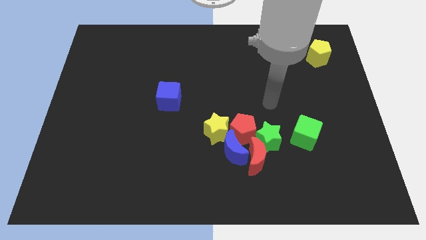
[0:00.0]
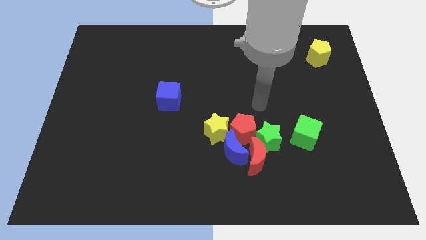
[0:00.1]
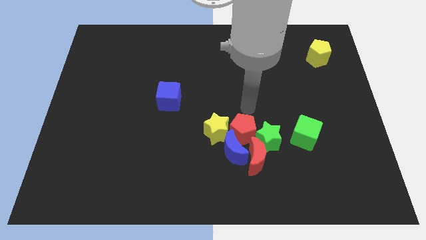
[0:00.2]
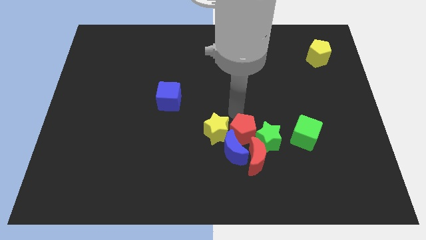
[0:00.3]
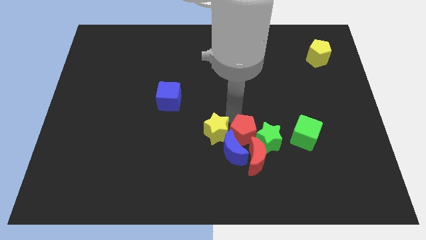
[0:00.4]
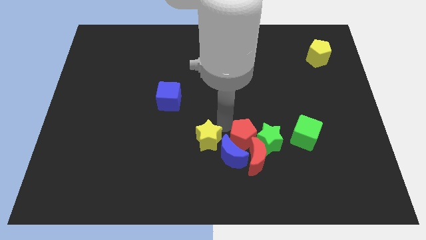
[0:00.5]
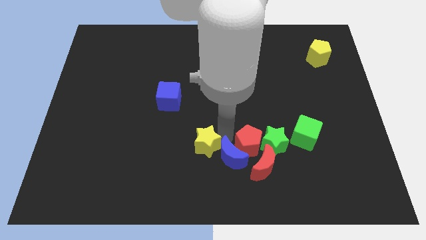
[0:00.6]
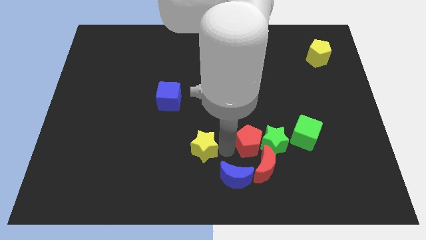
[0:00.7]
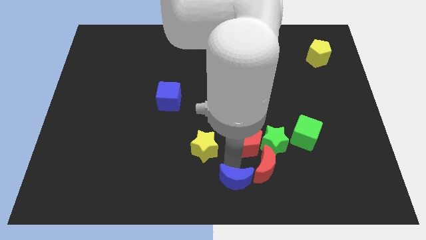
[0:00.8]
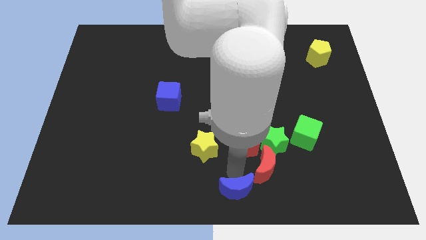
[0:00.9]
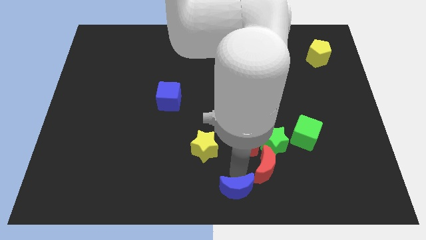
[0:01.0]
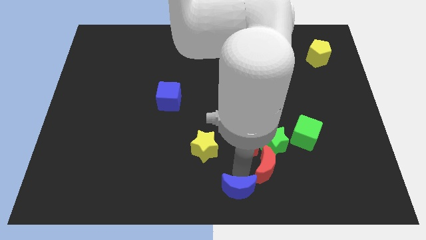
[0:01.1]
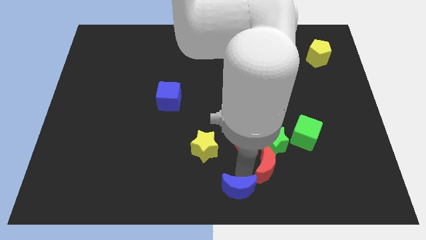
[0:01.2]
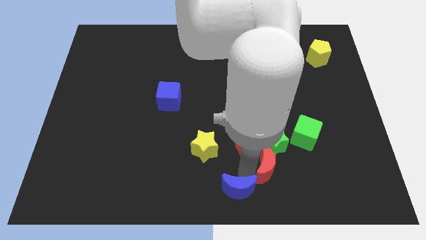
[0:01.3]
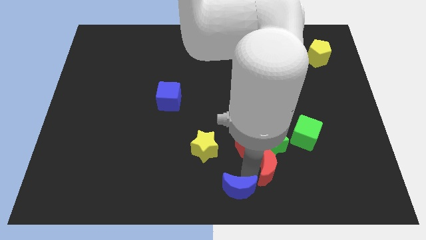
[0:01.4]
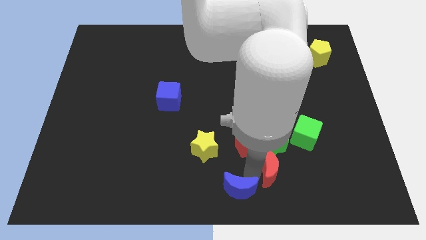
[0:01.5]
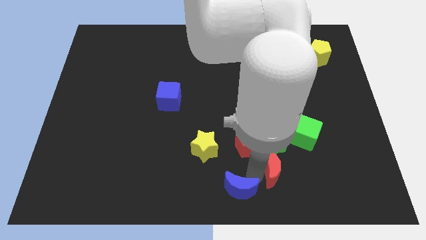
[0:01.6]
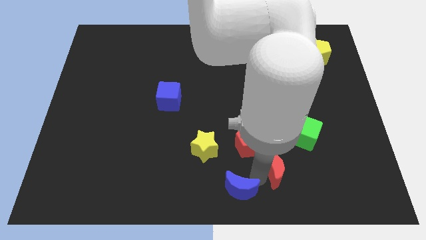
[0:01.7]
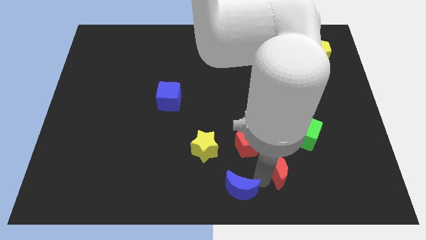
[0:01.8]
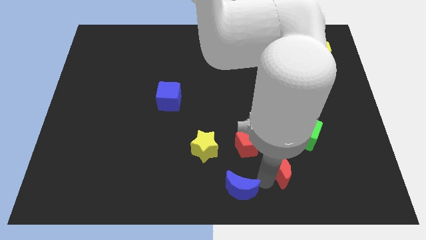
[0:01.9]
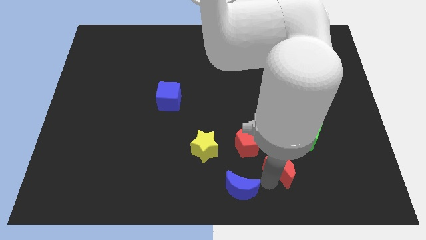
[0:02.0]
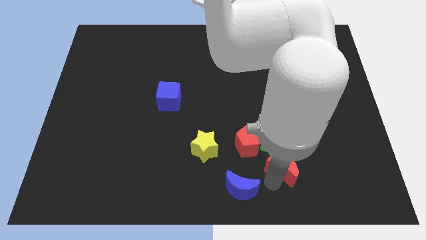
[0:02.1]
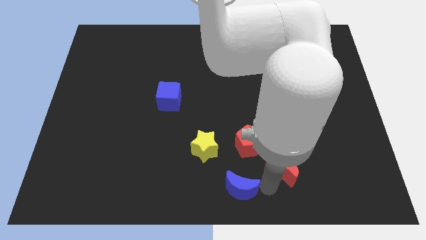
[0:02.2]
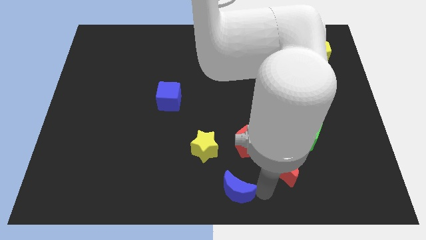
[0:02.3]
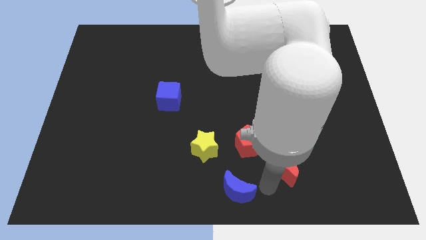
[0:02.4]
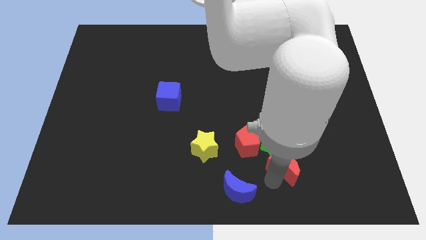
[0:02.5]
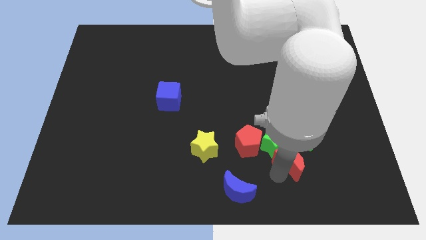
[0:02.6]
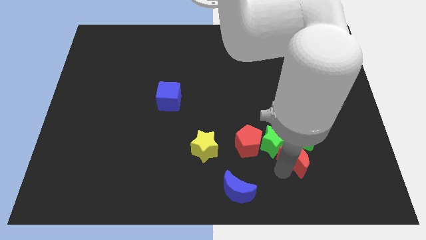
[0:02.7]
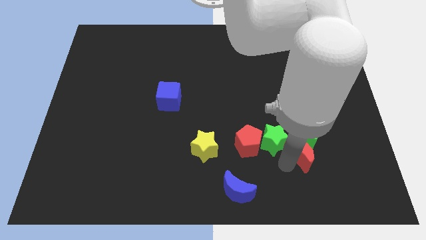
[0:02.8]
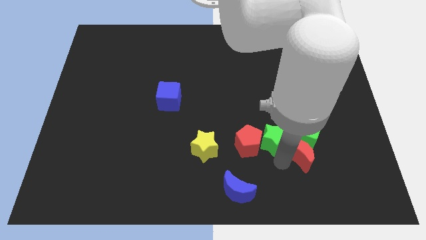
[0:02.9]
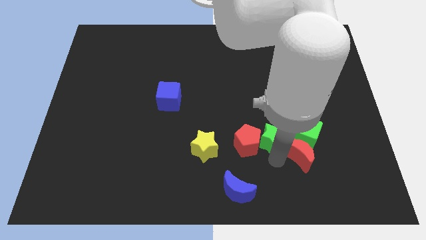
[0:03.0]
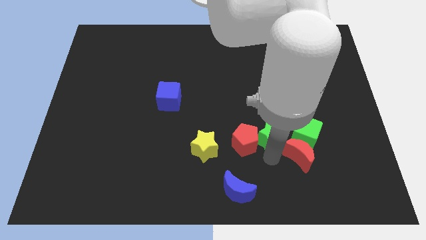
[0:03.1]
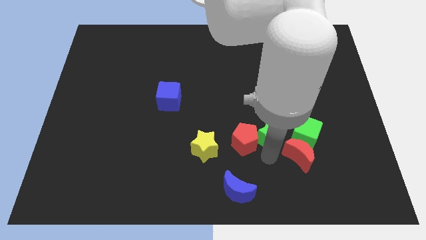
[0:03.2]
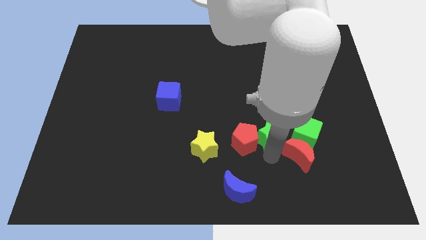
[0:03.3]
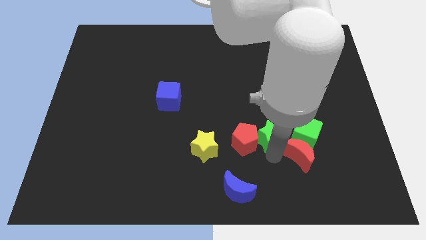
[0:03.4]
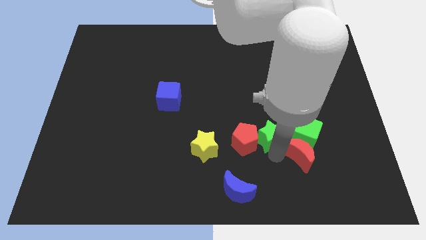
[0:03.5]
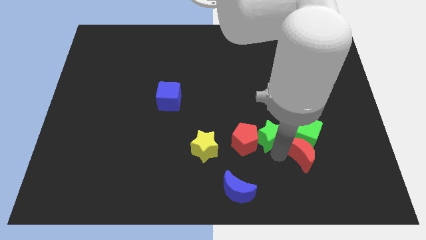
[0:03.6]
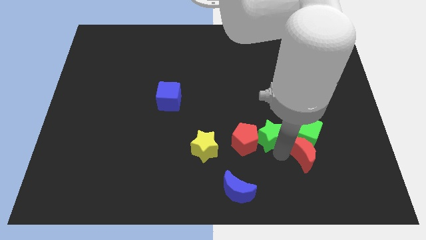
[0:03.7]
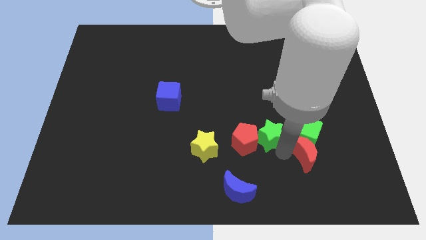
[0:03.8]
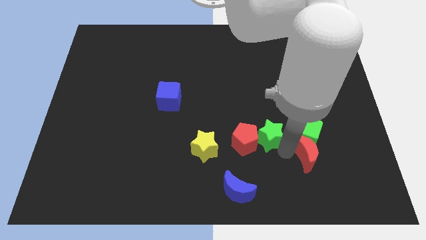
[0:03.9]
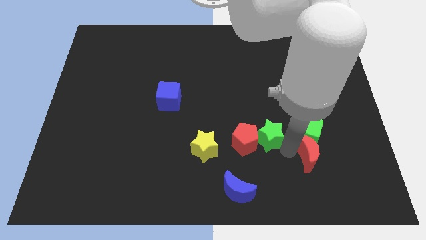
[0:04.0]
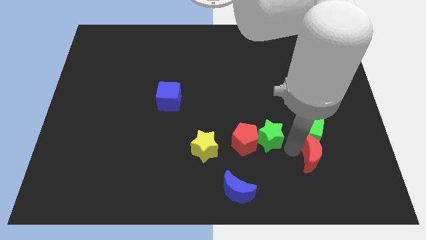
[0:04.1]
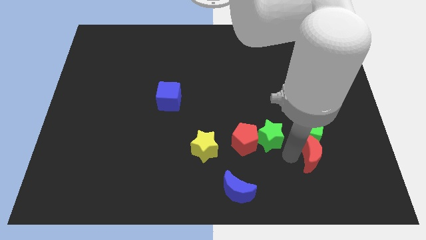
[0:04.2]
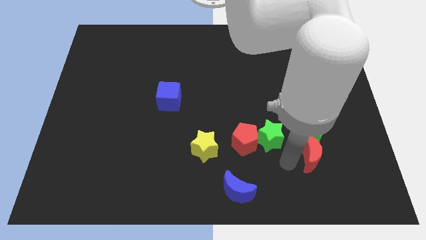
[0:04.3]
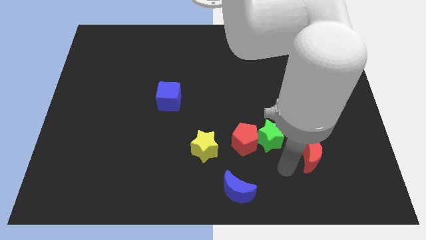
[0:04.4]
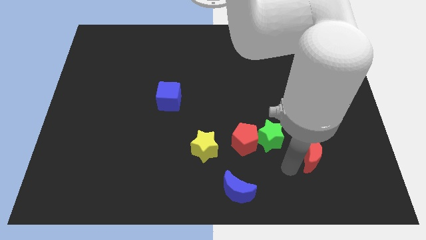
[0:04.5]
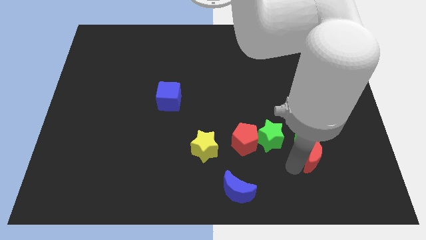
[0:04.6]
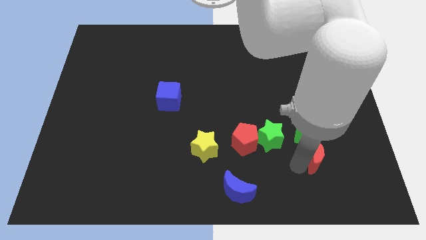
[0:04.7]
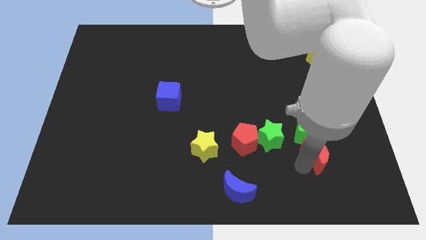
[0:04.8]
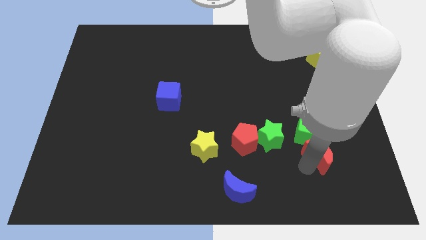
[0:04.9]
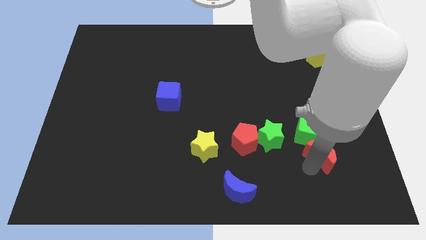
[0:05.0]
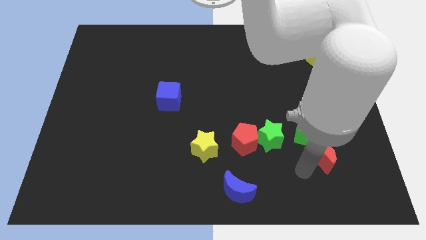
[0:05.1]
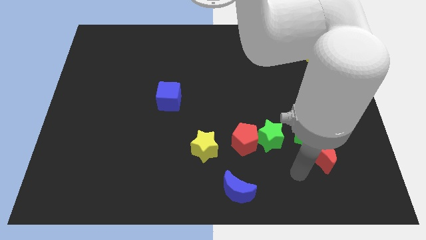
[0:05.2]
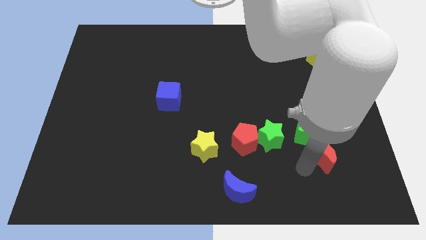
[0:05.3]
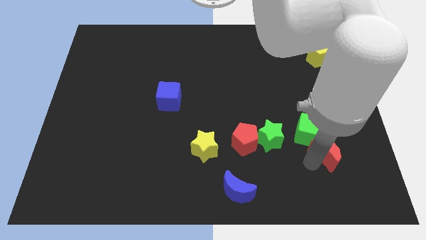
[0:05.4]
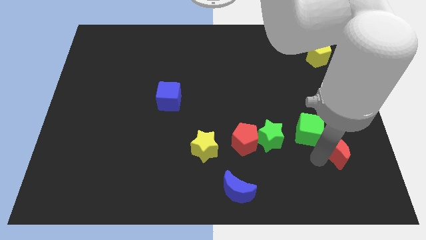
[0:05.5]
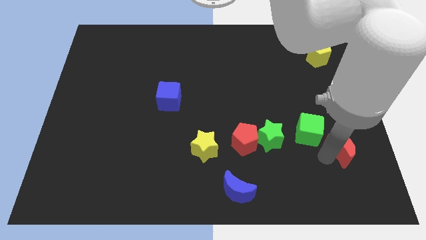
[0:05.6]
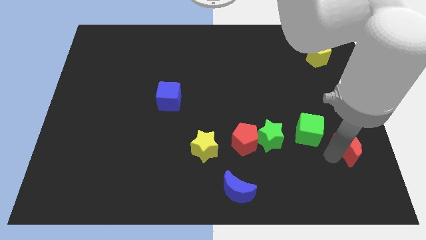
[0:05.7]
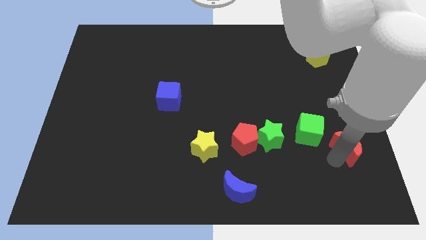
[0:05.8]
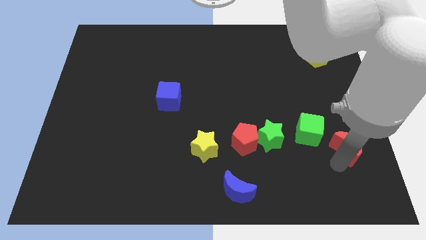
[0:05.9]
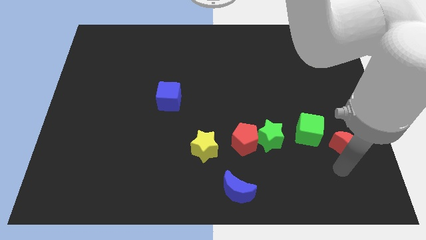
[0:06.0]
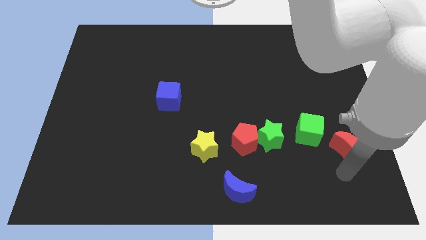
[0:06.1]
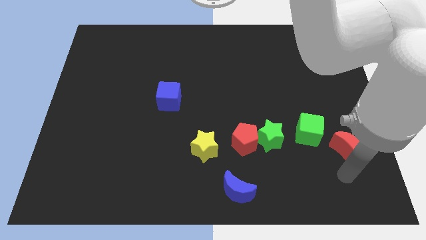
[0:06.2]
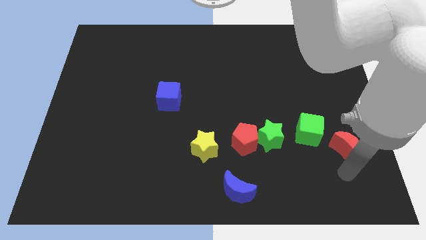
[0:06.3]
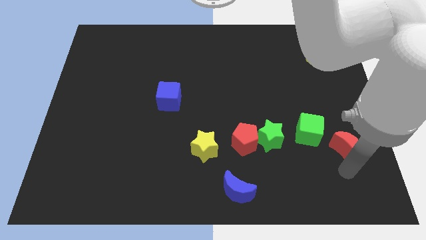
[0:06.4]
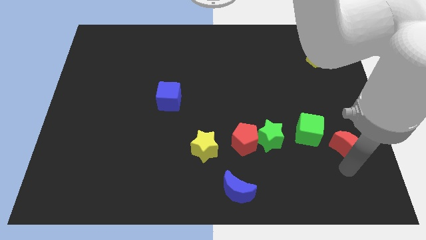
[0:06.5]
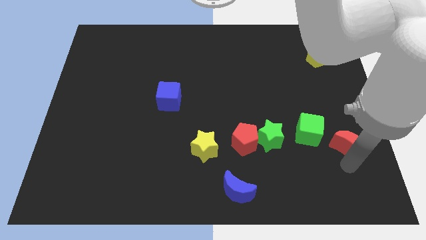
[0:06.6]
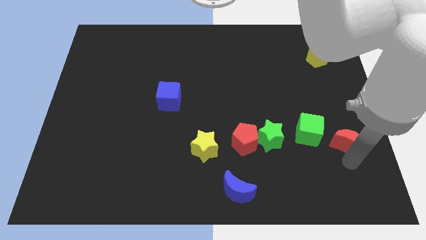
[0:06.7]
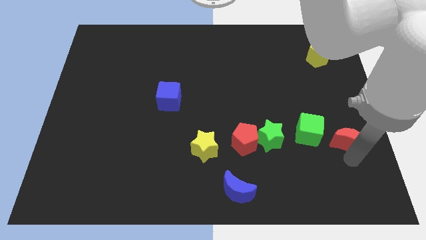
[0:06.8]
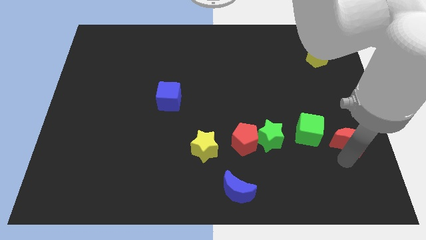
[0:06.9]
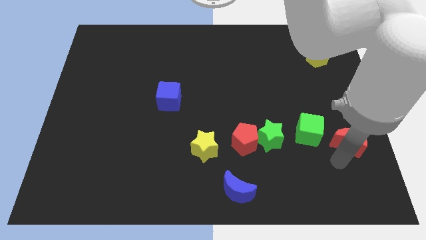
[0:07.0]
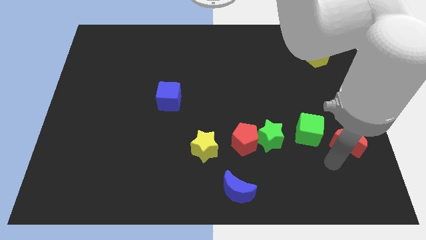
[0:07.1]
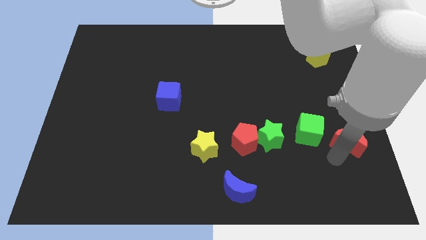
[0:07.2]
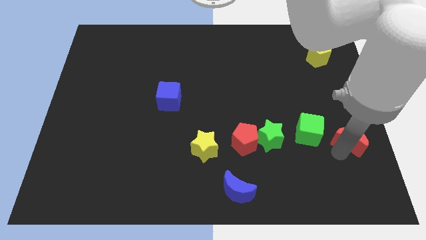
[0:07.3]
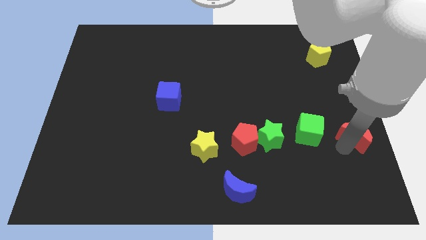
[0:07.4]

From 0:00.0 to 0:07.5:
slide the red moon to the right side of the board
